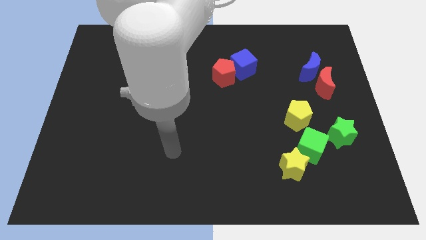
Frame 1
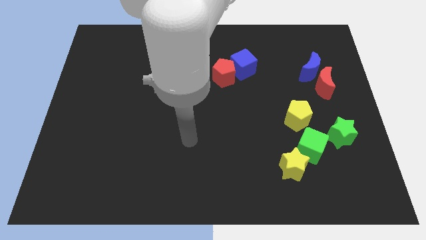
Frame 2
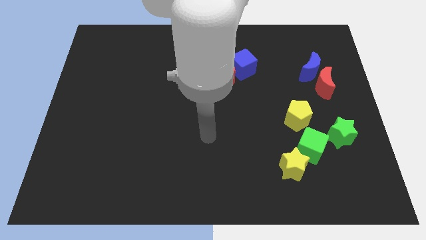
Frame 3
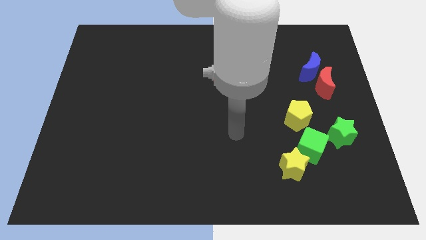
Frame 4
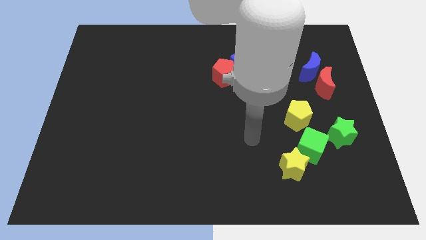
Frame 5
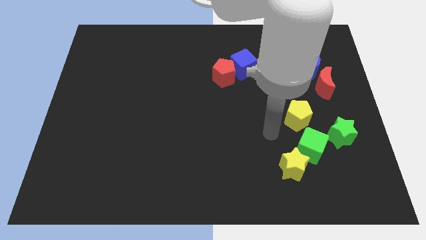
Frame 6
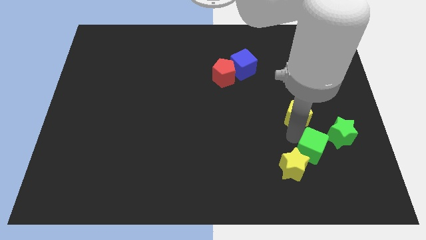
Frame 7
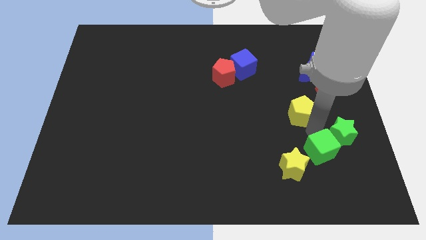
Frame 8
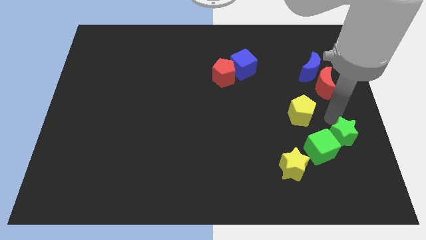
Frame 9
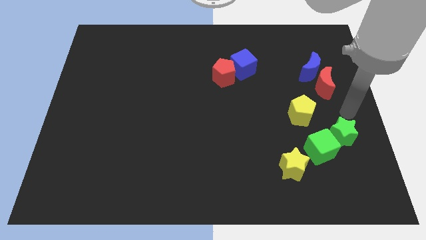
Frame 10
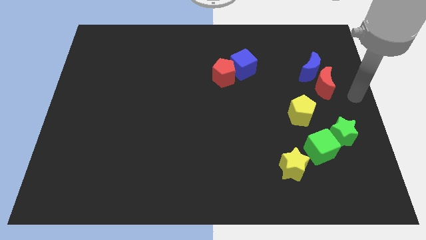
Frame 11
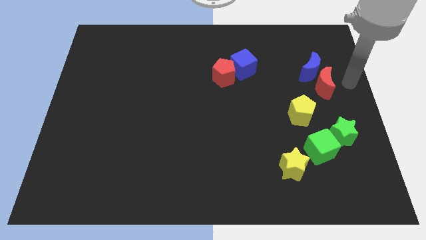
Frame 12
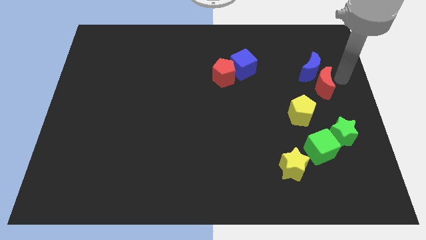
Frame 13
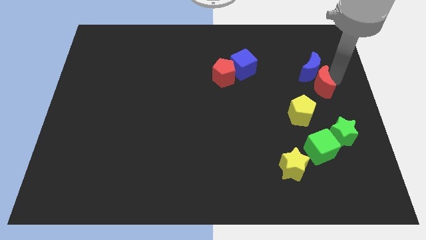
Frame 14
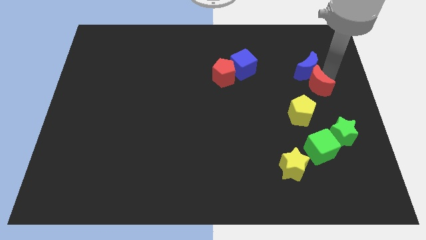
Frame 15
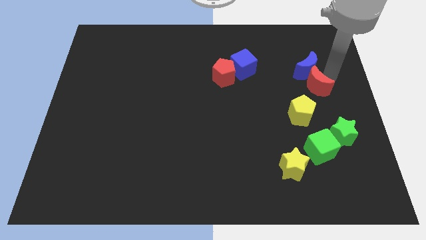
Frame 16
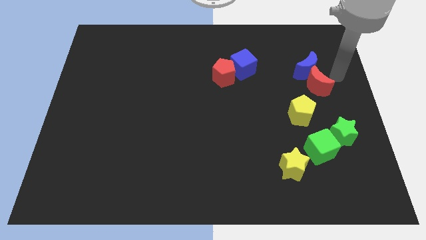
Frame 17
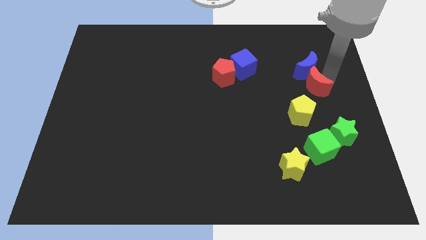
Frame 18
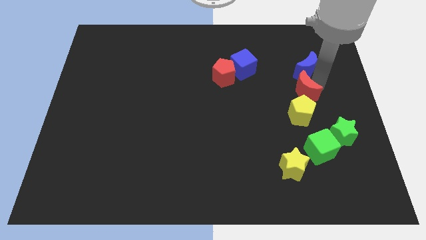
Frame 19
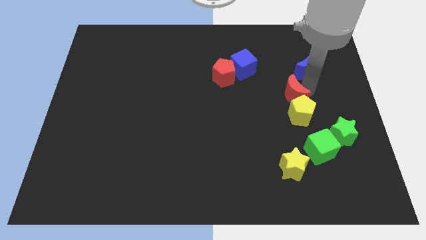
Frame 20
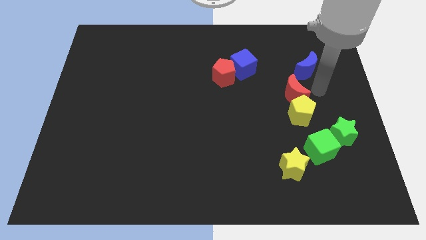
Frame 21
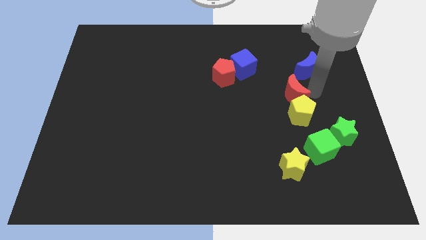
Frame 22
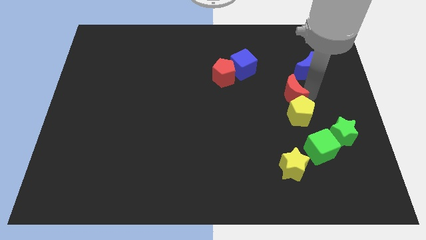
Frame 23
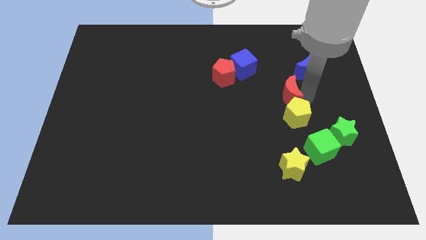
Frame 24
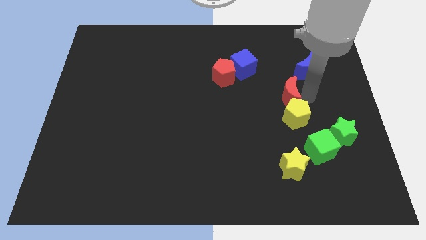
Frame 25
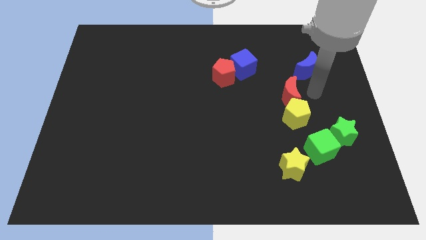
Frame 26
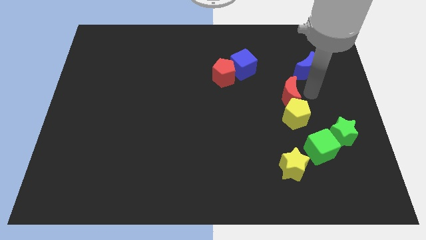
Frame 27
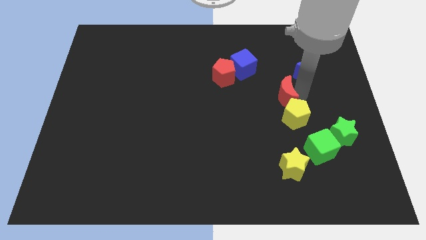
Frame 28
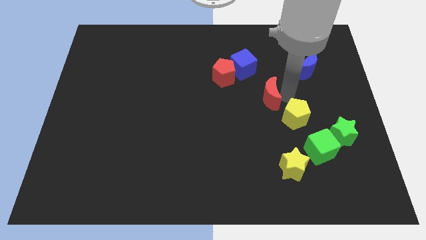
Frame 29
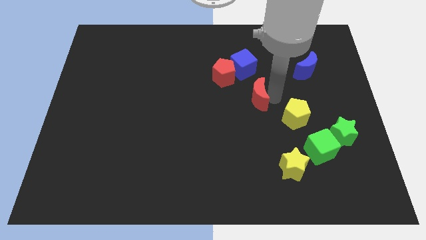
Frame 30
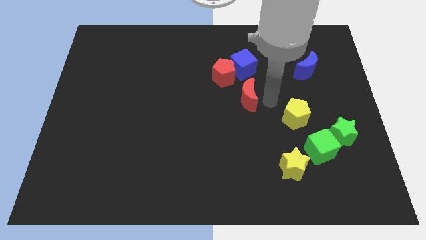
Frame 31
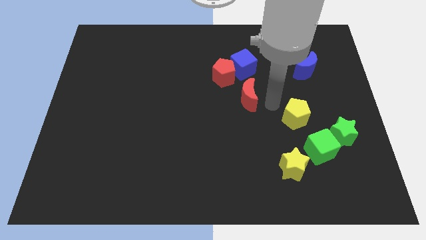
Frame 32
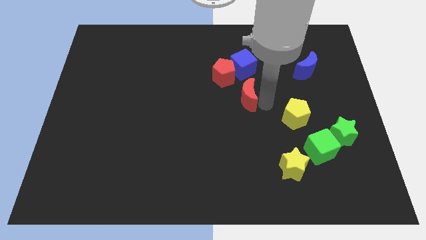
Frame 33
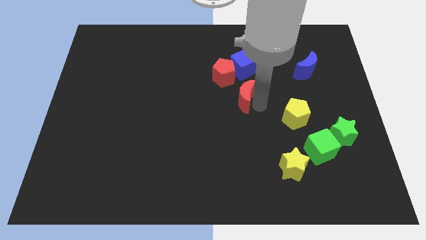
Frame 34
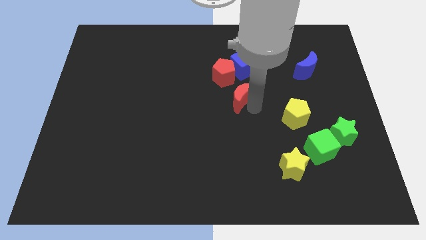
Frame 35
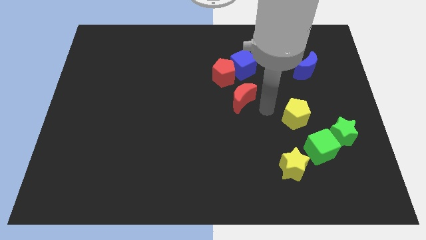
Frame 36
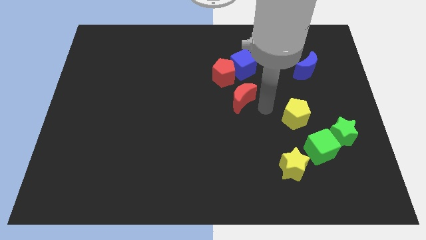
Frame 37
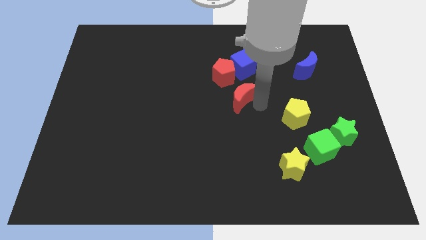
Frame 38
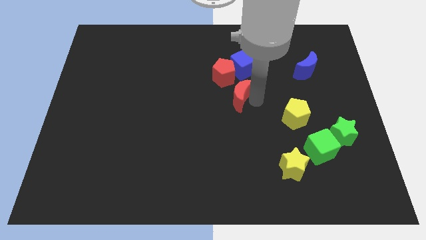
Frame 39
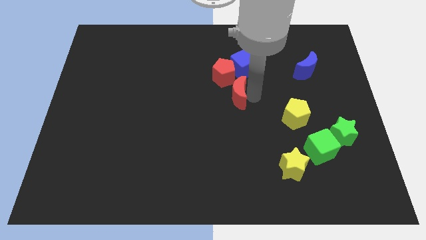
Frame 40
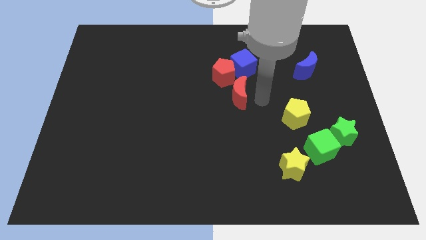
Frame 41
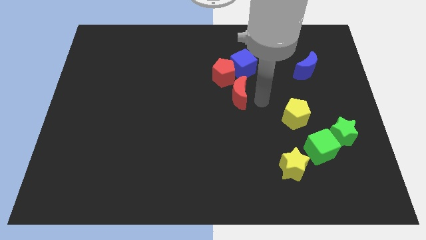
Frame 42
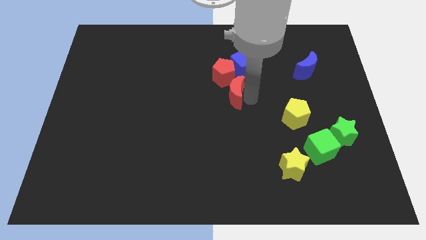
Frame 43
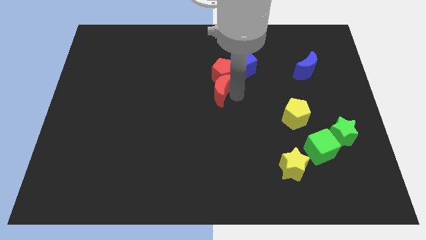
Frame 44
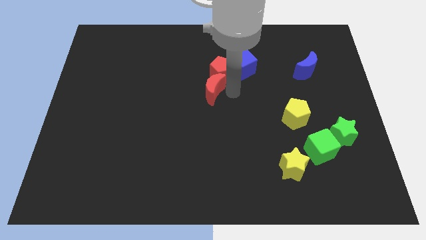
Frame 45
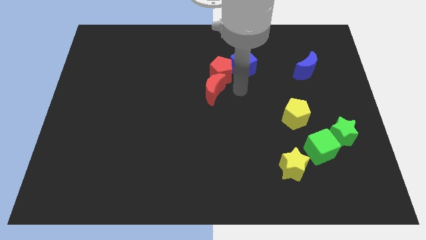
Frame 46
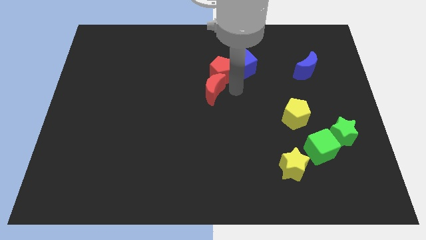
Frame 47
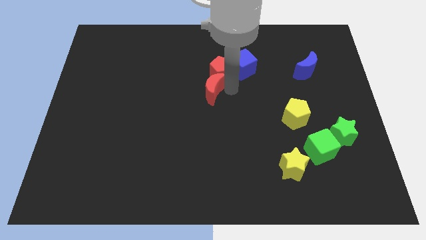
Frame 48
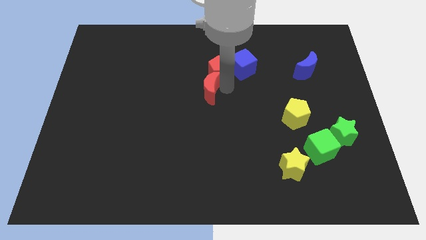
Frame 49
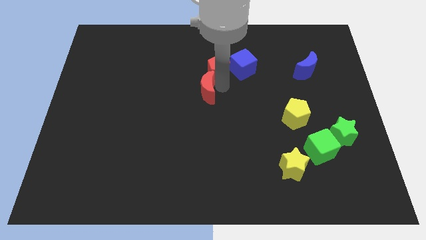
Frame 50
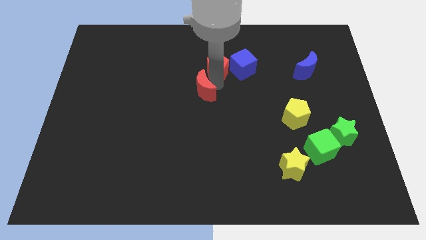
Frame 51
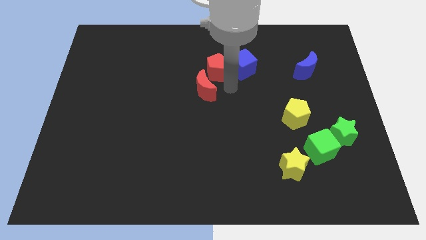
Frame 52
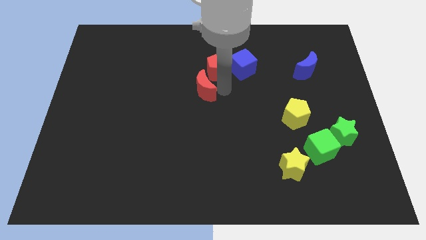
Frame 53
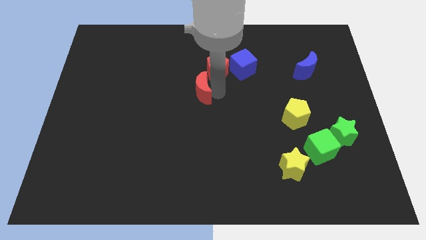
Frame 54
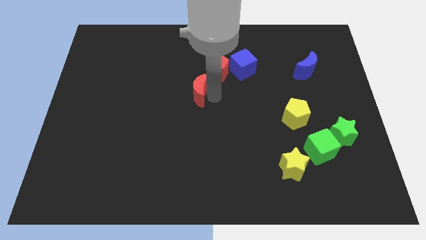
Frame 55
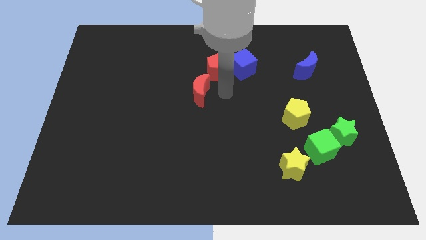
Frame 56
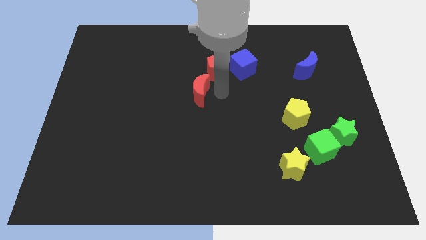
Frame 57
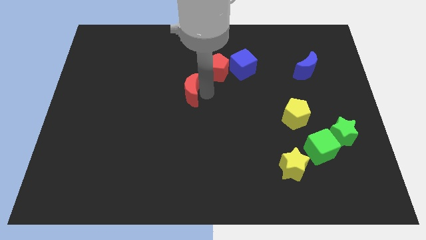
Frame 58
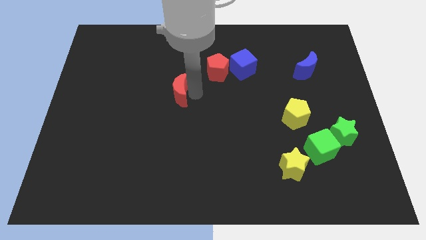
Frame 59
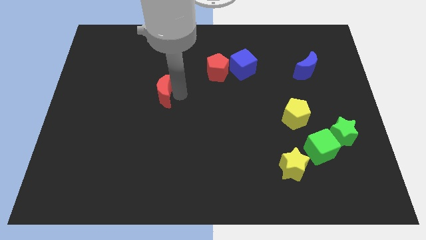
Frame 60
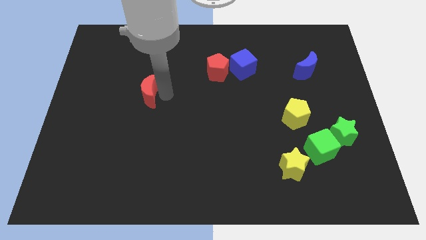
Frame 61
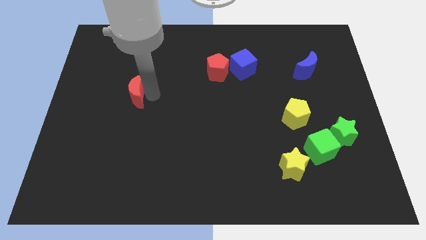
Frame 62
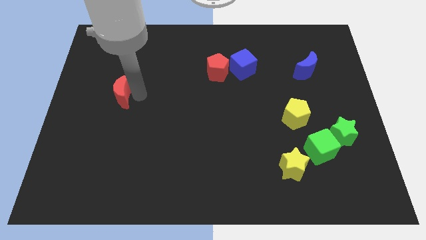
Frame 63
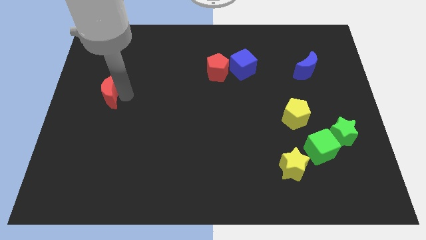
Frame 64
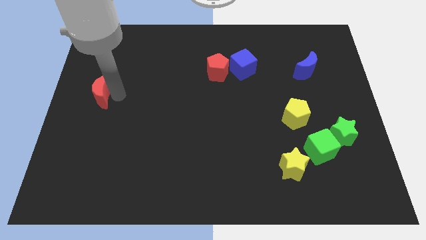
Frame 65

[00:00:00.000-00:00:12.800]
move the red moon to the center left
